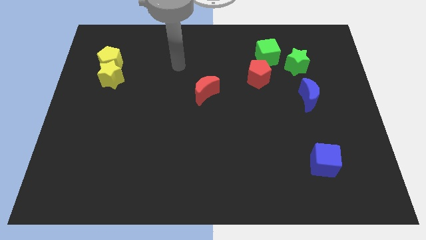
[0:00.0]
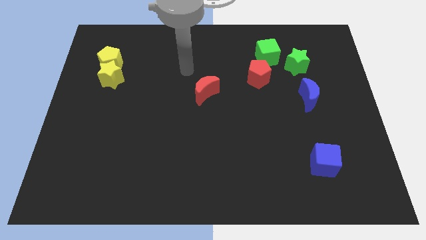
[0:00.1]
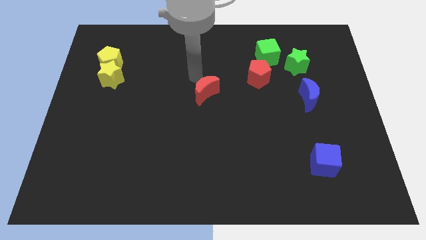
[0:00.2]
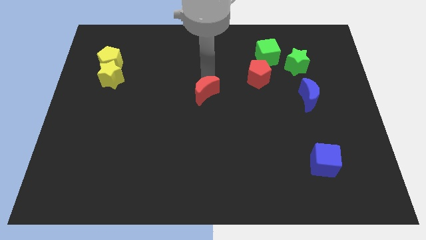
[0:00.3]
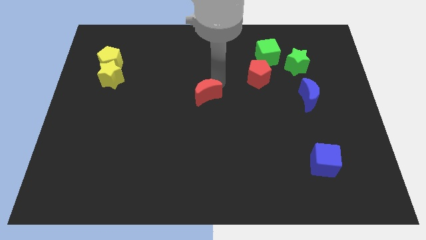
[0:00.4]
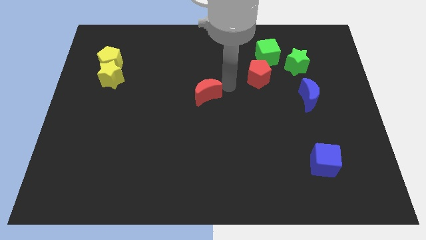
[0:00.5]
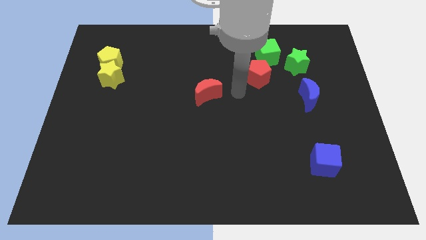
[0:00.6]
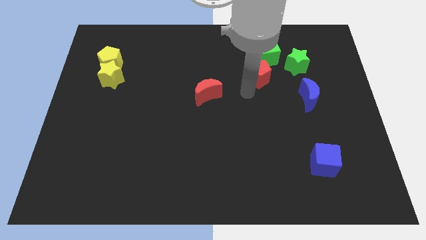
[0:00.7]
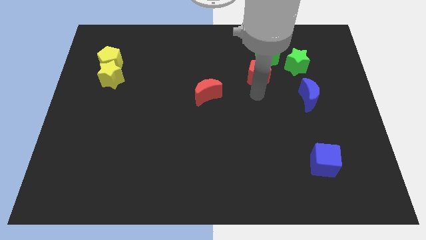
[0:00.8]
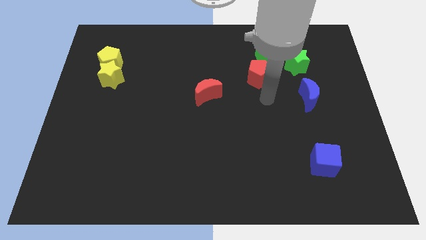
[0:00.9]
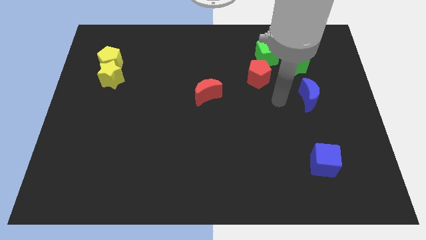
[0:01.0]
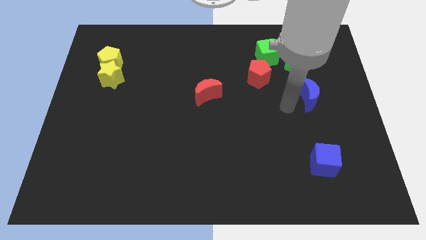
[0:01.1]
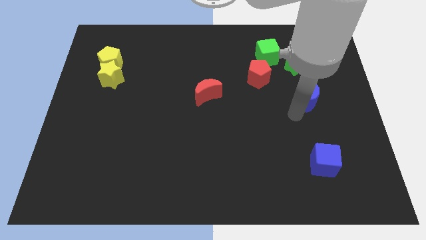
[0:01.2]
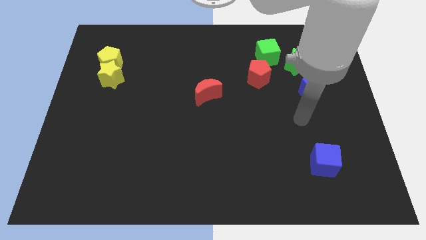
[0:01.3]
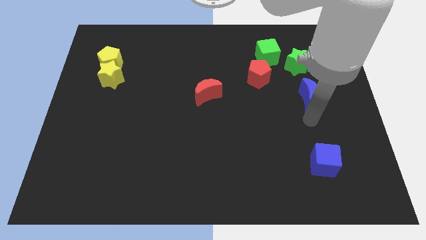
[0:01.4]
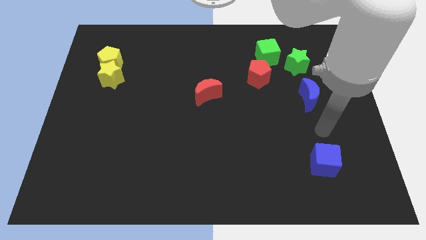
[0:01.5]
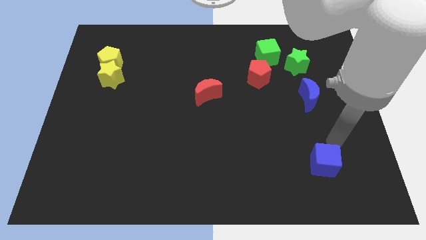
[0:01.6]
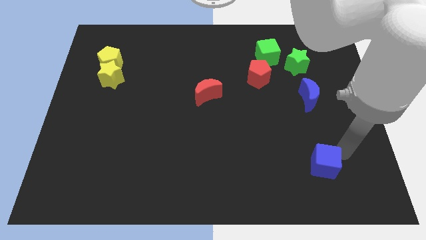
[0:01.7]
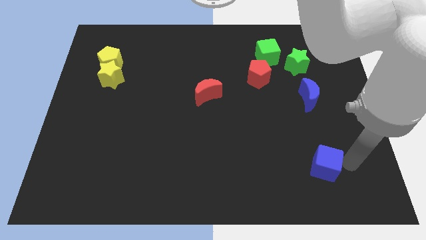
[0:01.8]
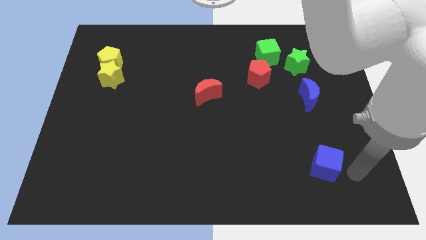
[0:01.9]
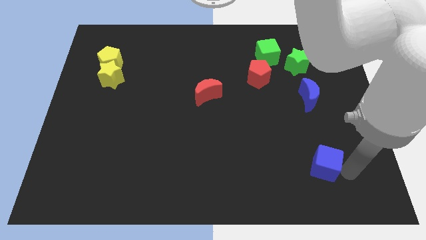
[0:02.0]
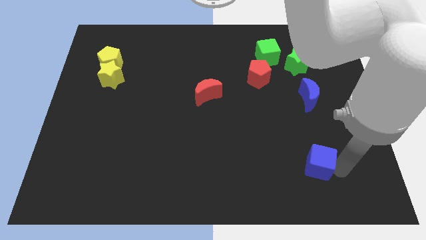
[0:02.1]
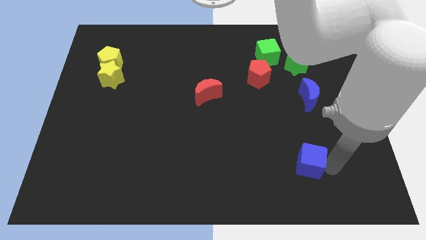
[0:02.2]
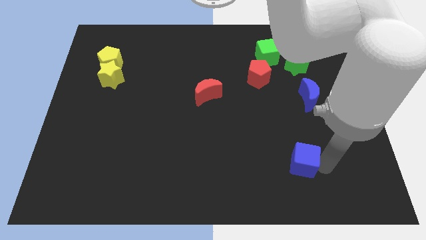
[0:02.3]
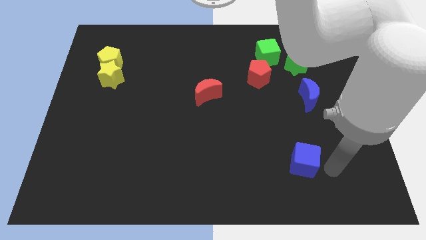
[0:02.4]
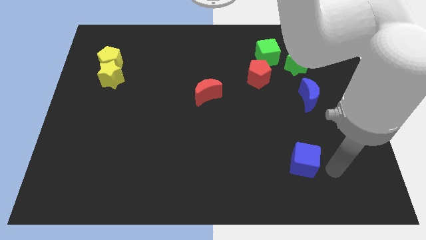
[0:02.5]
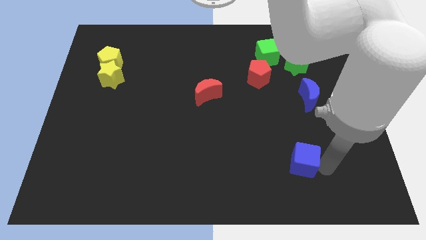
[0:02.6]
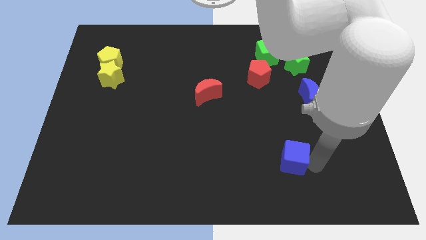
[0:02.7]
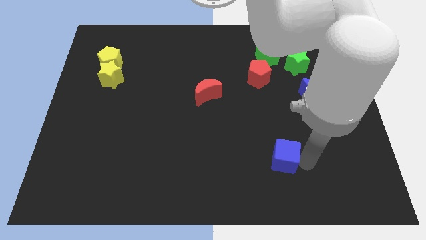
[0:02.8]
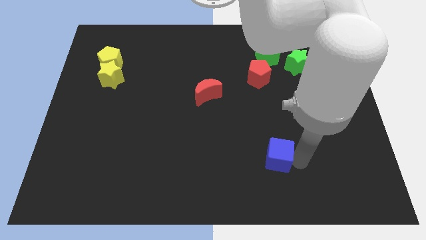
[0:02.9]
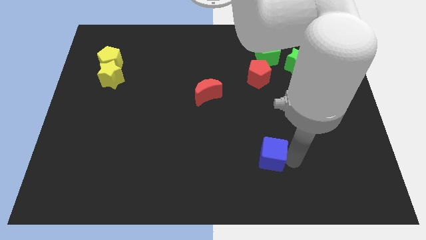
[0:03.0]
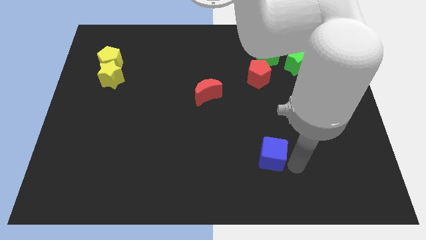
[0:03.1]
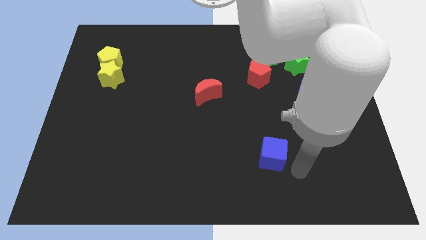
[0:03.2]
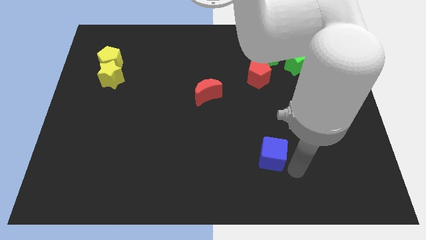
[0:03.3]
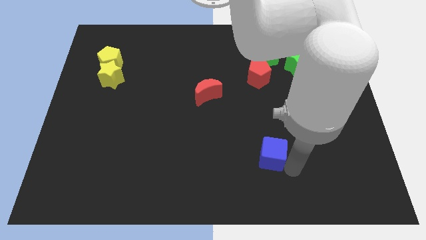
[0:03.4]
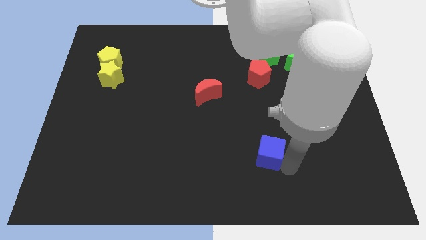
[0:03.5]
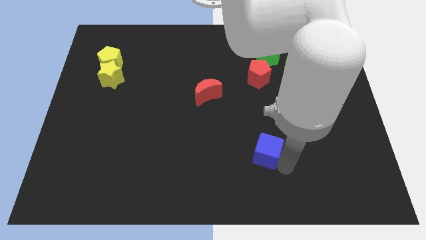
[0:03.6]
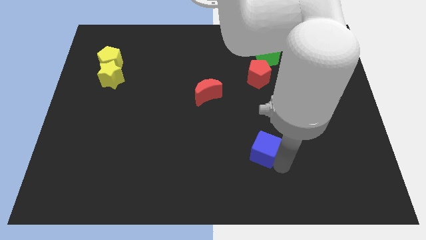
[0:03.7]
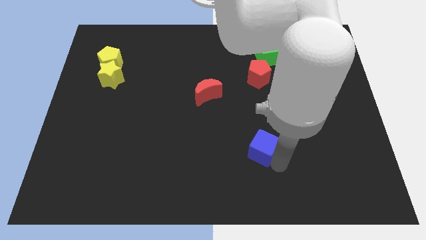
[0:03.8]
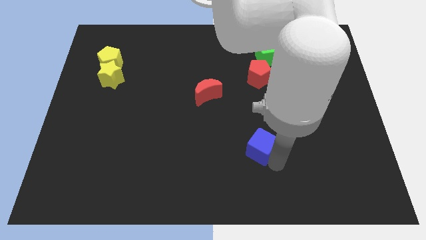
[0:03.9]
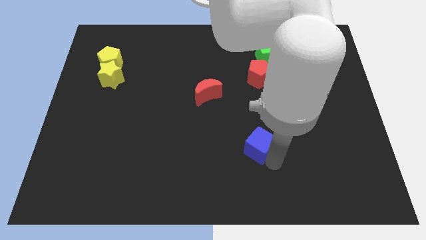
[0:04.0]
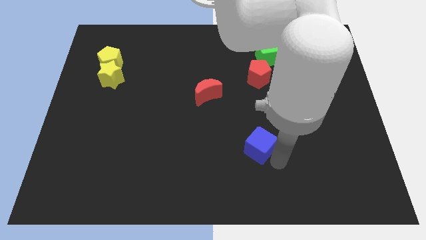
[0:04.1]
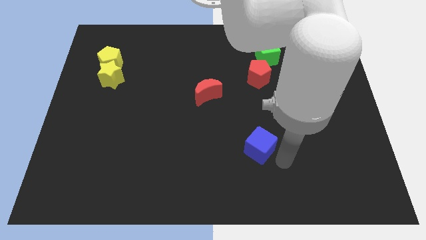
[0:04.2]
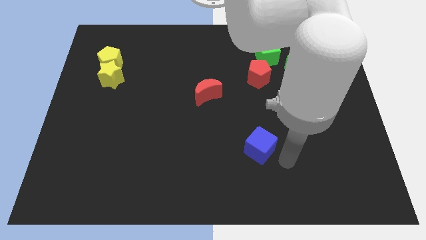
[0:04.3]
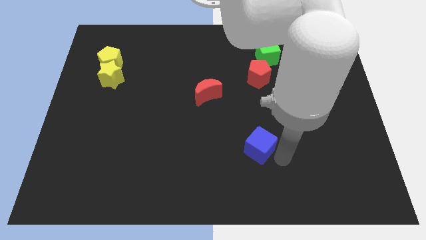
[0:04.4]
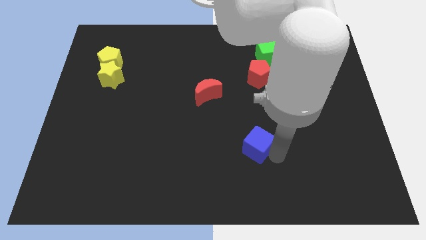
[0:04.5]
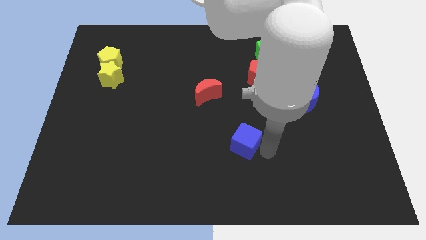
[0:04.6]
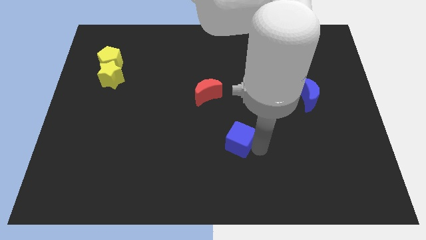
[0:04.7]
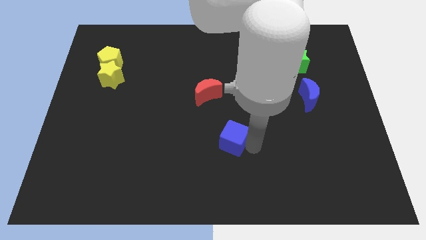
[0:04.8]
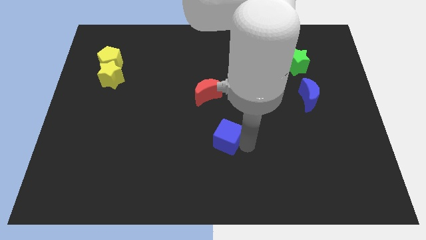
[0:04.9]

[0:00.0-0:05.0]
put the blue cube to the bottom side of the red moon

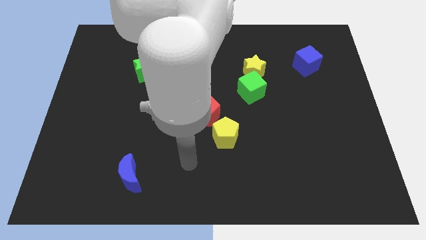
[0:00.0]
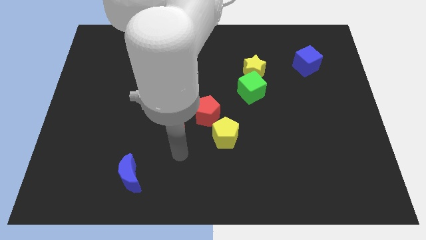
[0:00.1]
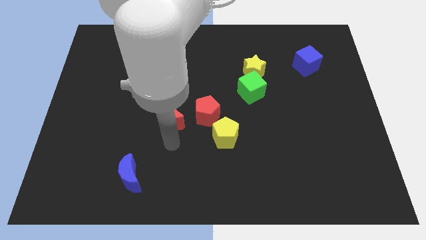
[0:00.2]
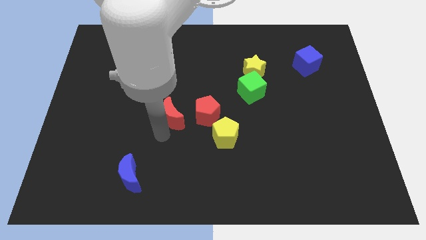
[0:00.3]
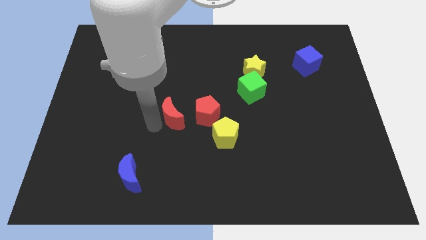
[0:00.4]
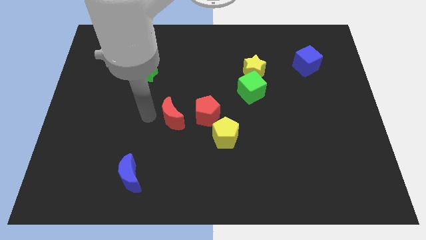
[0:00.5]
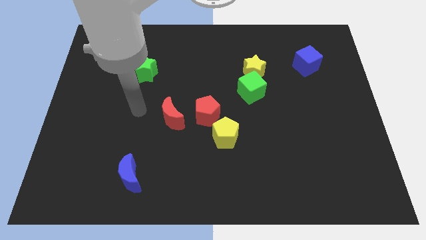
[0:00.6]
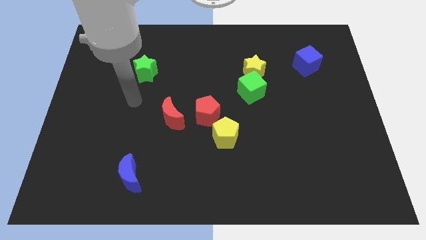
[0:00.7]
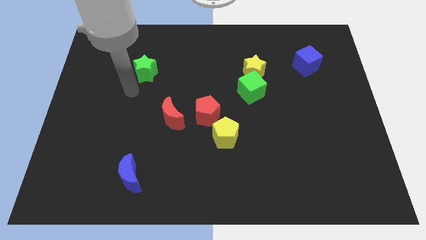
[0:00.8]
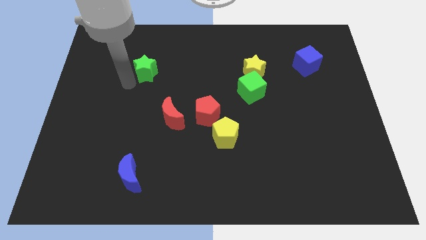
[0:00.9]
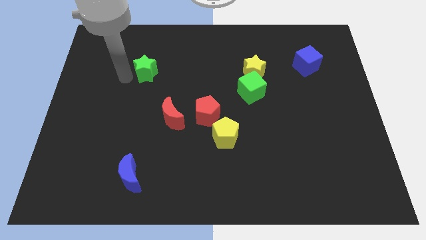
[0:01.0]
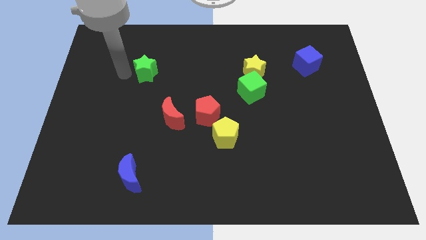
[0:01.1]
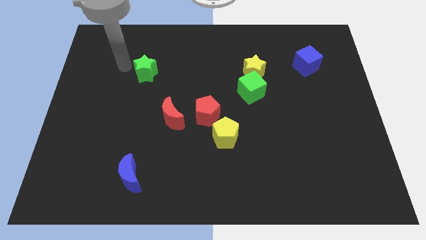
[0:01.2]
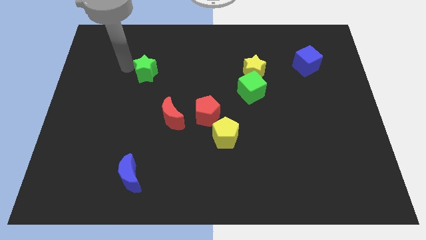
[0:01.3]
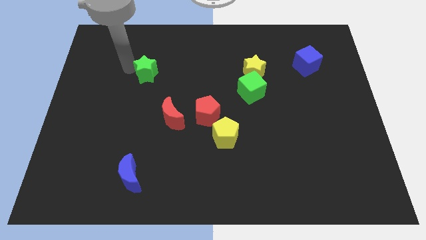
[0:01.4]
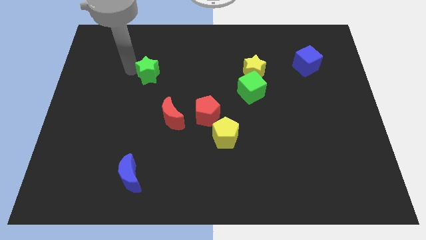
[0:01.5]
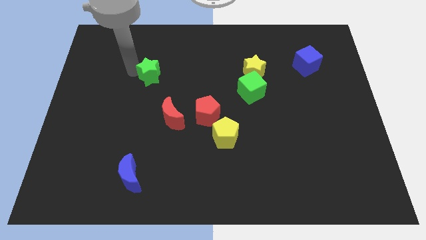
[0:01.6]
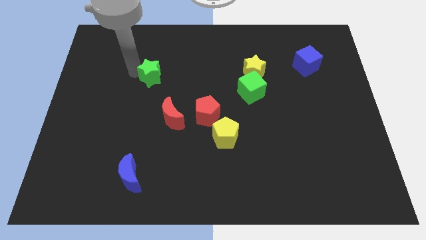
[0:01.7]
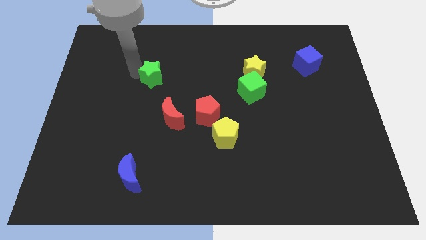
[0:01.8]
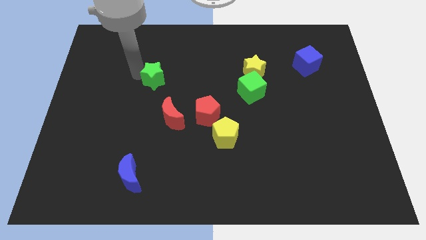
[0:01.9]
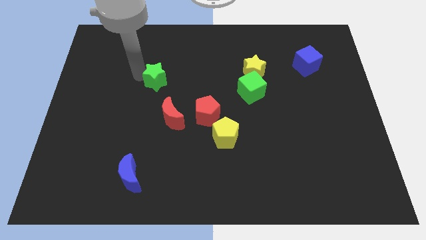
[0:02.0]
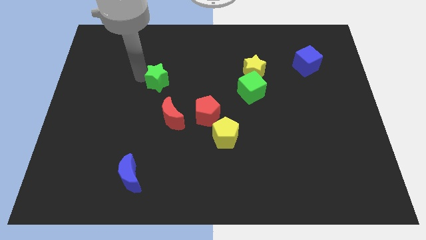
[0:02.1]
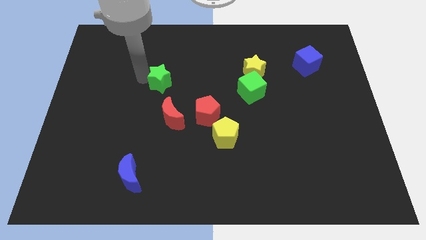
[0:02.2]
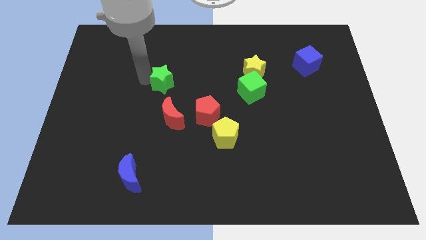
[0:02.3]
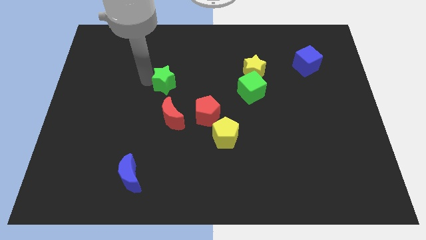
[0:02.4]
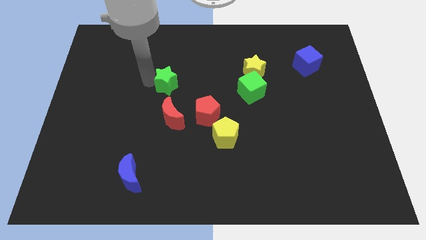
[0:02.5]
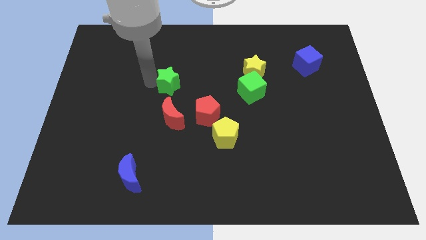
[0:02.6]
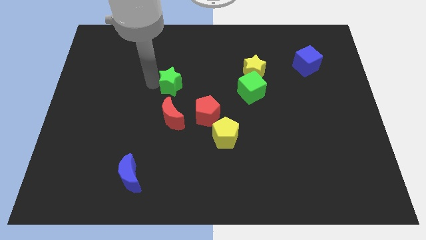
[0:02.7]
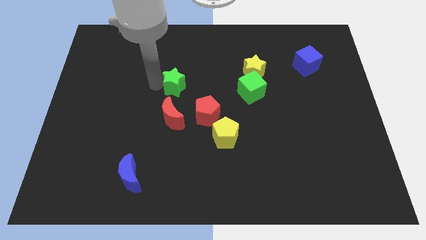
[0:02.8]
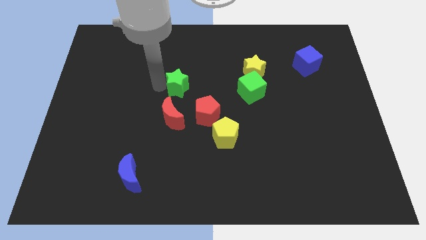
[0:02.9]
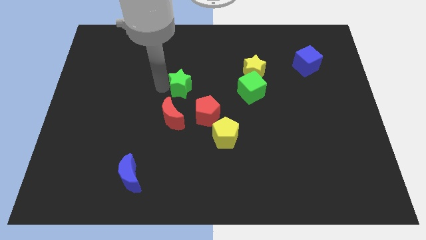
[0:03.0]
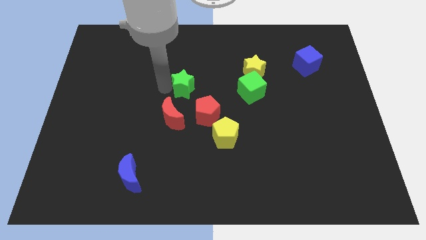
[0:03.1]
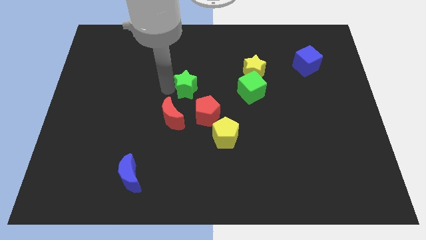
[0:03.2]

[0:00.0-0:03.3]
push the green star to the top side of the red pentagon
